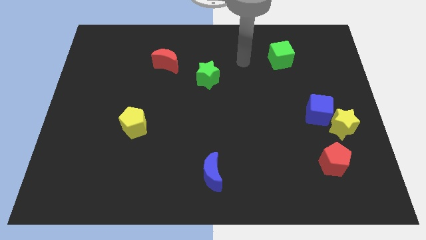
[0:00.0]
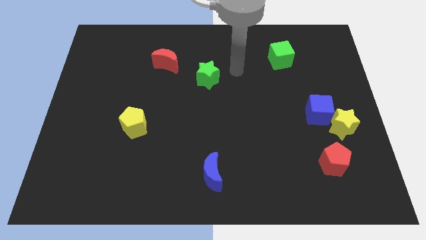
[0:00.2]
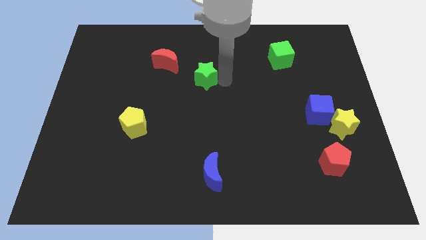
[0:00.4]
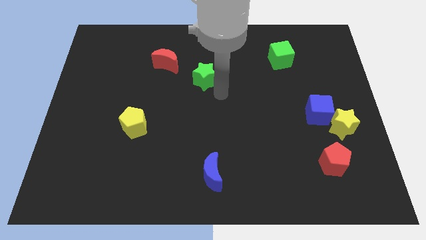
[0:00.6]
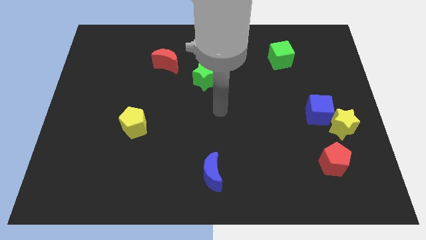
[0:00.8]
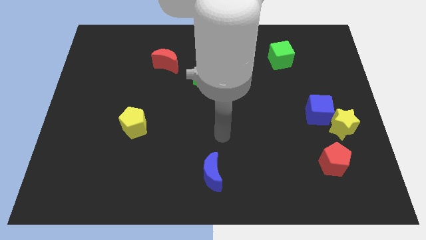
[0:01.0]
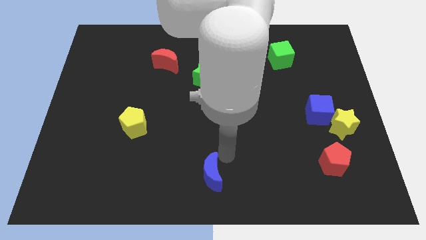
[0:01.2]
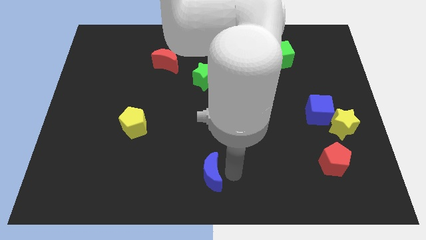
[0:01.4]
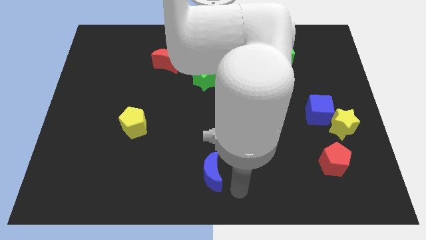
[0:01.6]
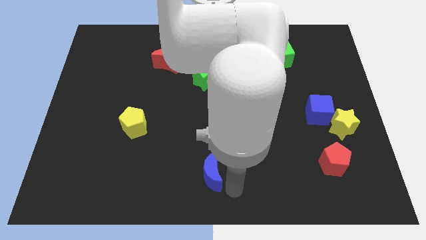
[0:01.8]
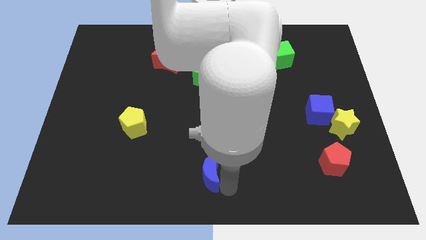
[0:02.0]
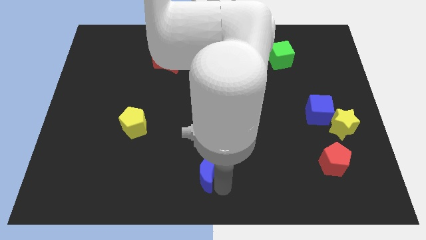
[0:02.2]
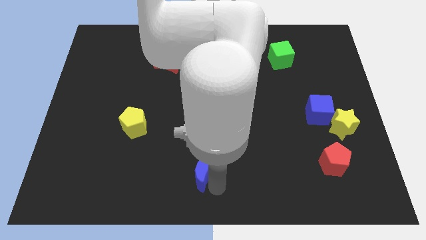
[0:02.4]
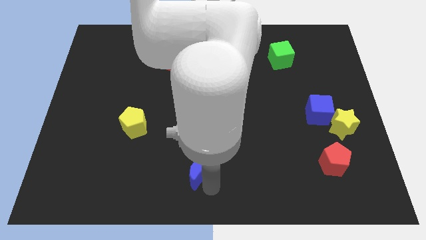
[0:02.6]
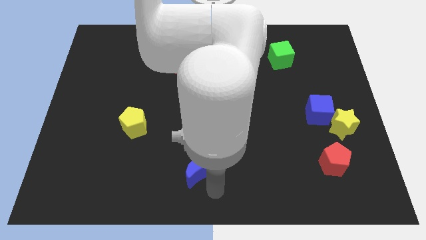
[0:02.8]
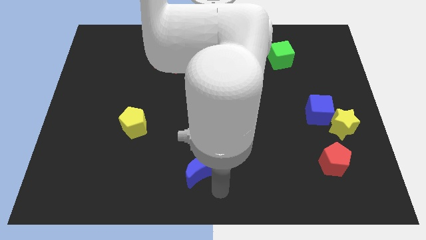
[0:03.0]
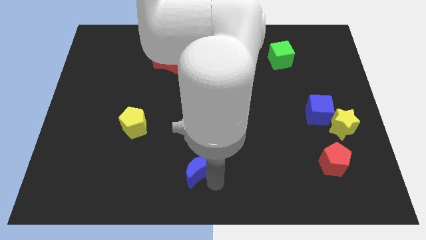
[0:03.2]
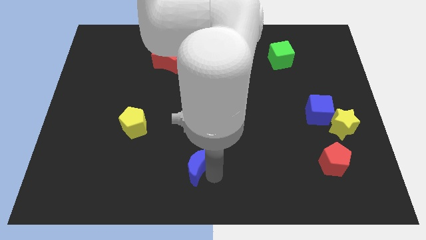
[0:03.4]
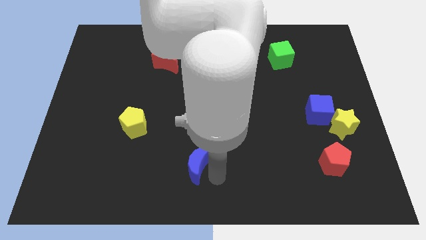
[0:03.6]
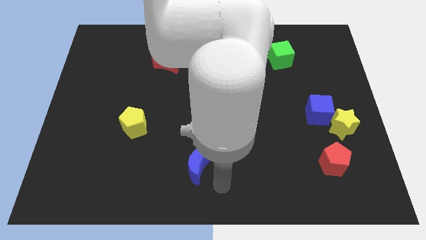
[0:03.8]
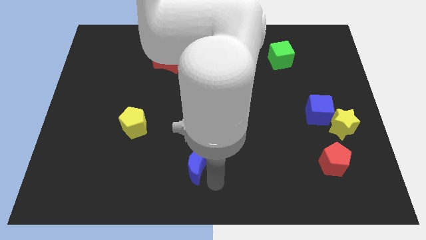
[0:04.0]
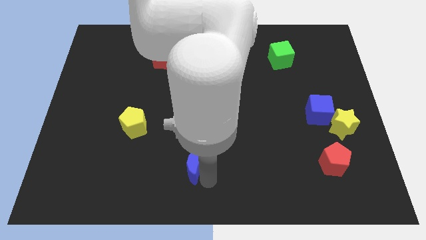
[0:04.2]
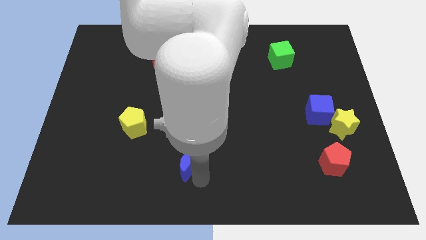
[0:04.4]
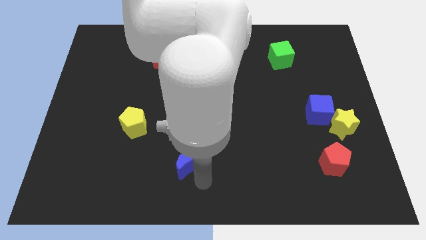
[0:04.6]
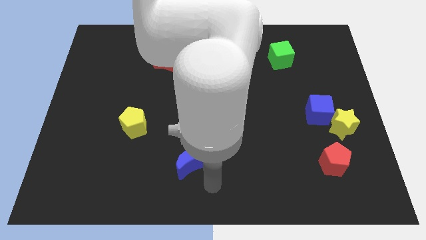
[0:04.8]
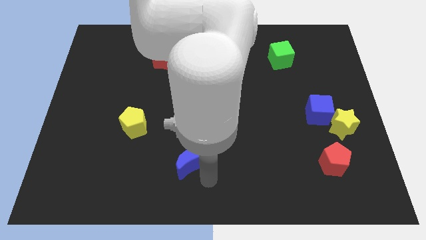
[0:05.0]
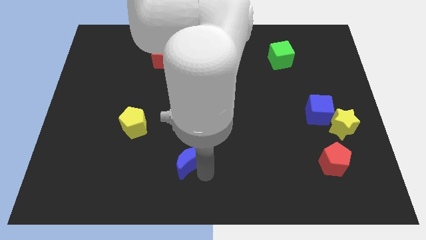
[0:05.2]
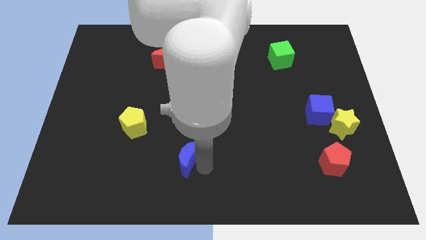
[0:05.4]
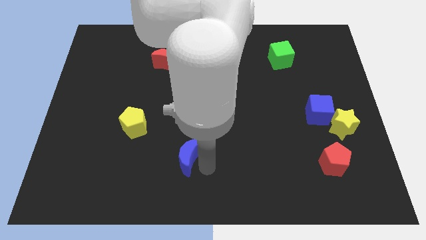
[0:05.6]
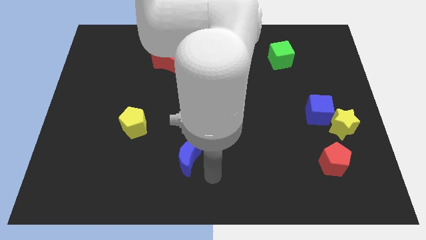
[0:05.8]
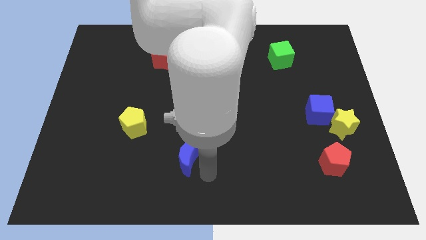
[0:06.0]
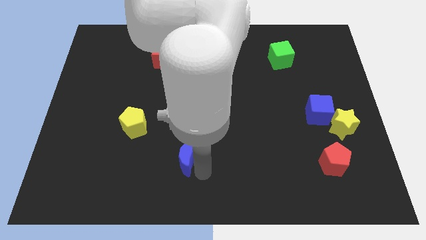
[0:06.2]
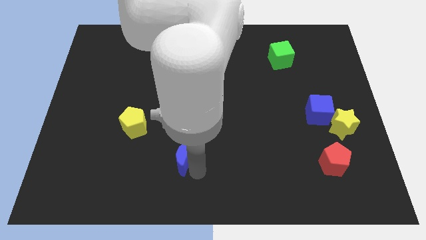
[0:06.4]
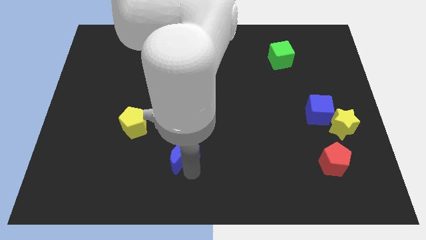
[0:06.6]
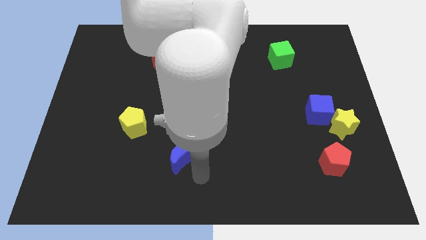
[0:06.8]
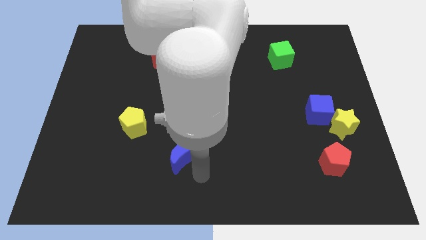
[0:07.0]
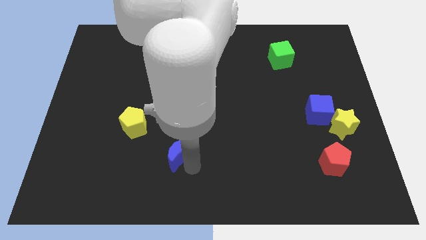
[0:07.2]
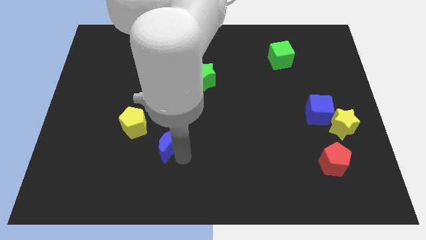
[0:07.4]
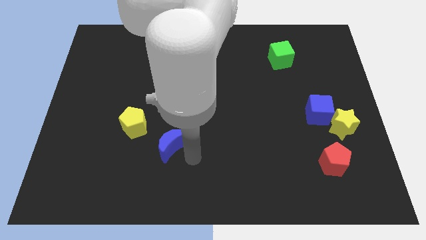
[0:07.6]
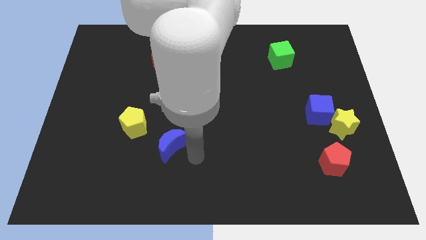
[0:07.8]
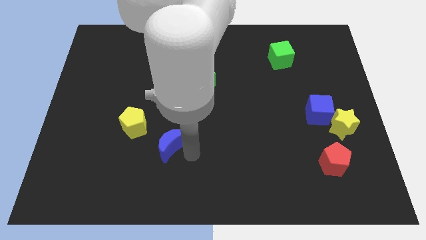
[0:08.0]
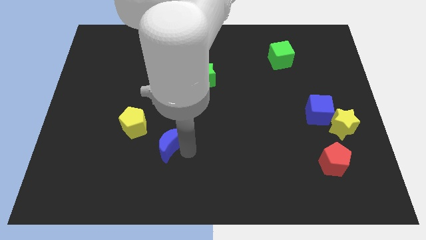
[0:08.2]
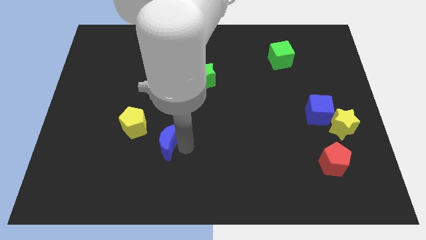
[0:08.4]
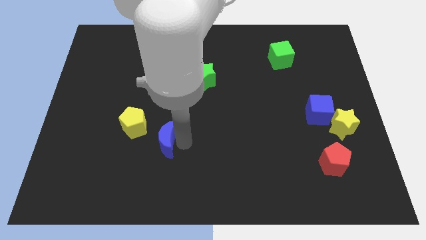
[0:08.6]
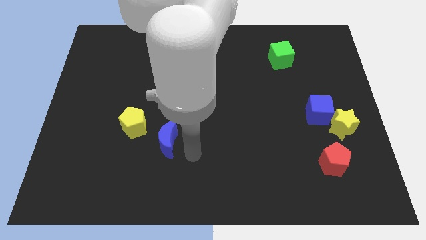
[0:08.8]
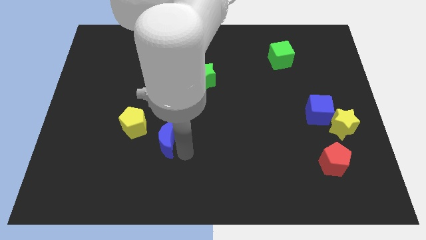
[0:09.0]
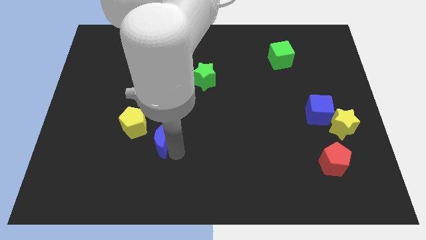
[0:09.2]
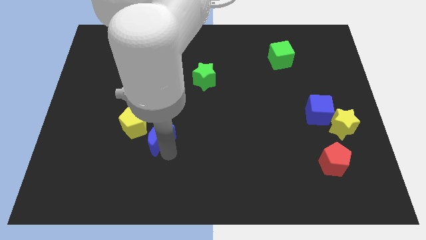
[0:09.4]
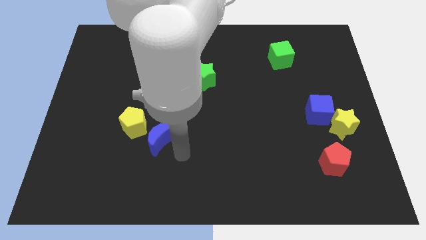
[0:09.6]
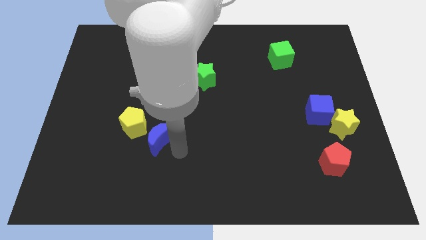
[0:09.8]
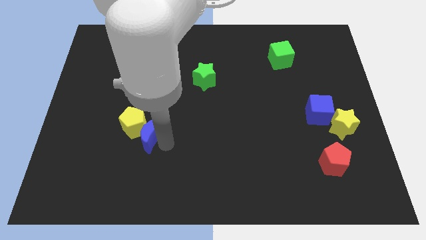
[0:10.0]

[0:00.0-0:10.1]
slide the blue moon towards the yellow pentagon

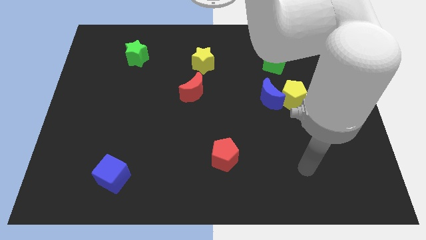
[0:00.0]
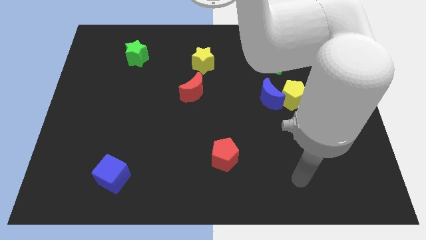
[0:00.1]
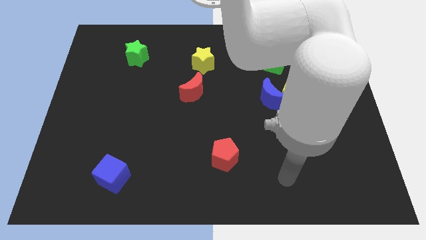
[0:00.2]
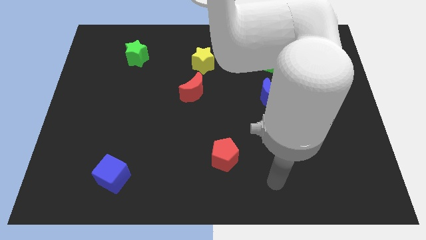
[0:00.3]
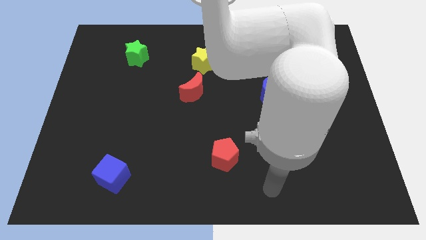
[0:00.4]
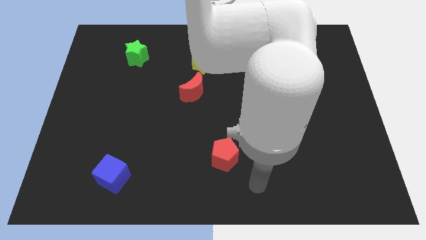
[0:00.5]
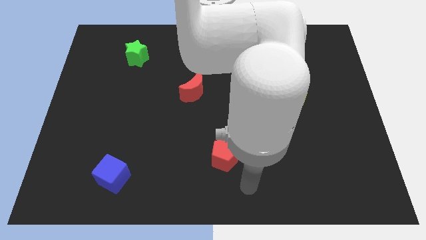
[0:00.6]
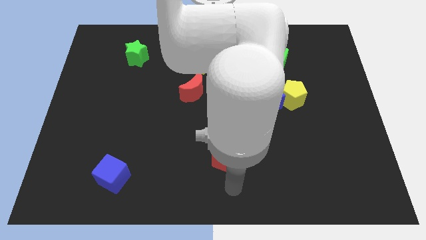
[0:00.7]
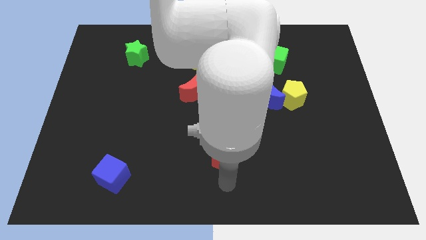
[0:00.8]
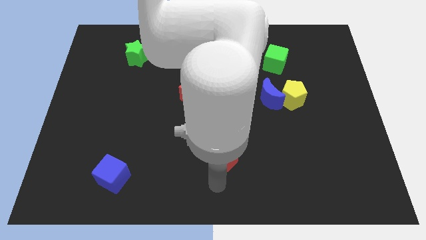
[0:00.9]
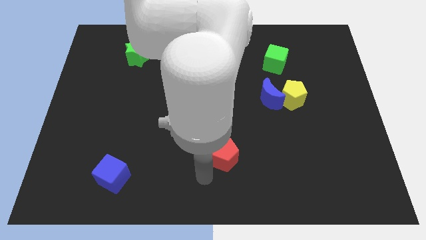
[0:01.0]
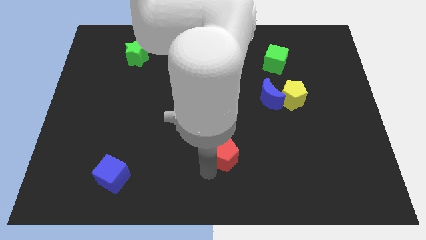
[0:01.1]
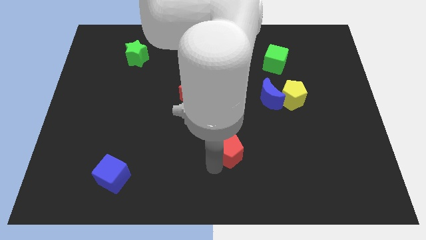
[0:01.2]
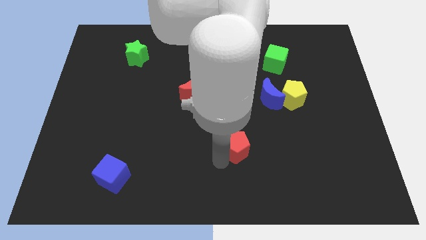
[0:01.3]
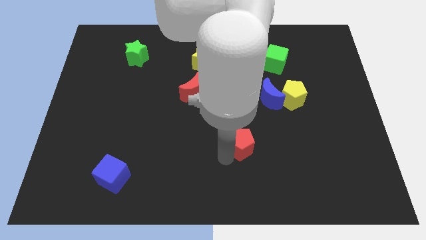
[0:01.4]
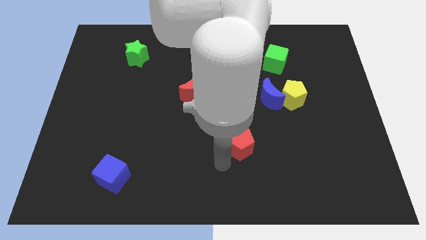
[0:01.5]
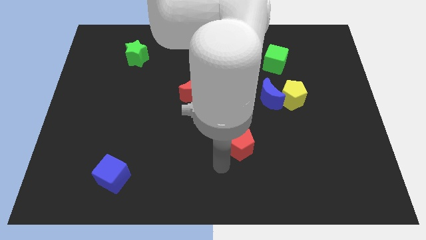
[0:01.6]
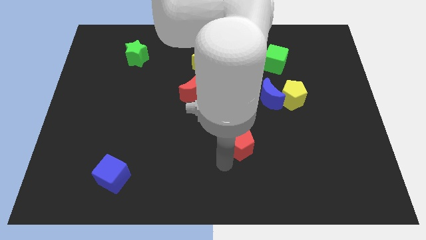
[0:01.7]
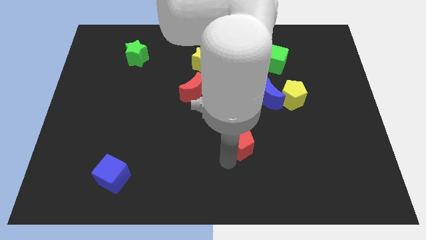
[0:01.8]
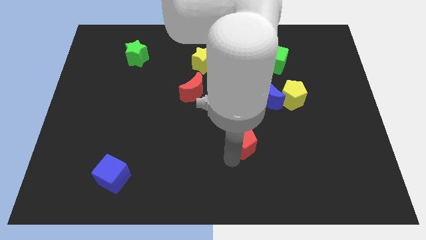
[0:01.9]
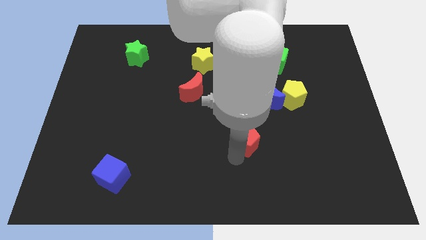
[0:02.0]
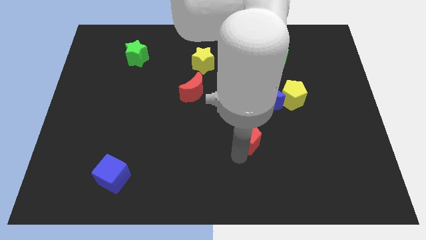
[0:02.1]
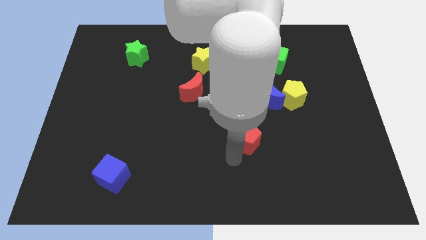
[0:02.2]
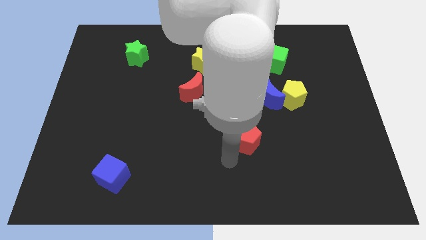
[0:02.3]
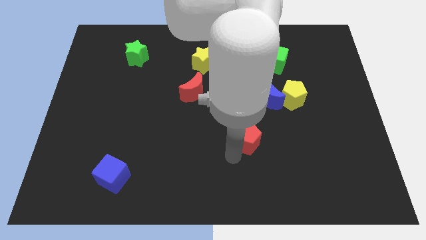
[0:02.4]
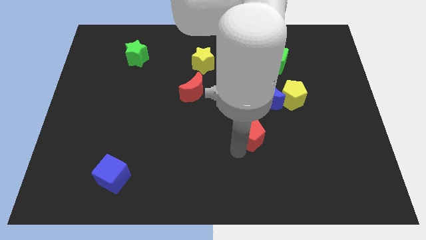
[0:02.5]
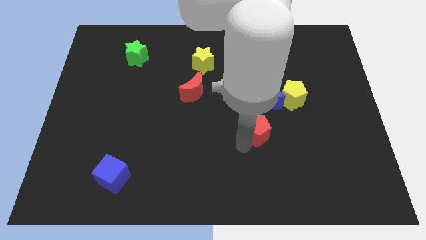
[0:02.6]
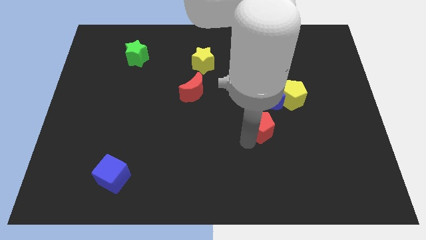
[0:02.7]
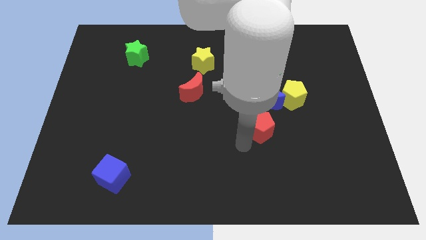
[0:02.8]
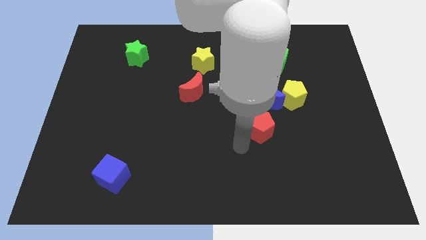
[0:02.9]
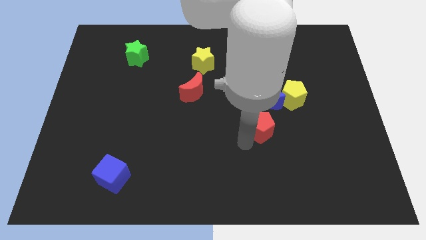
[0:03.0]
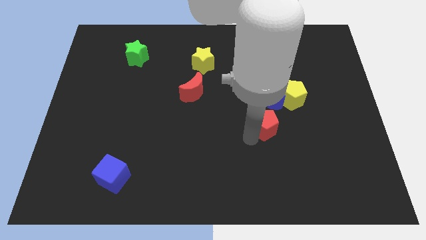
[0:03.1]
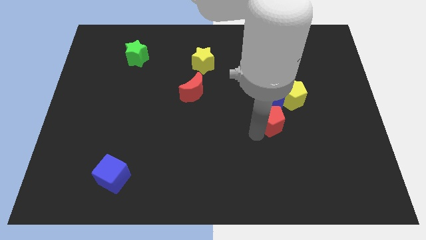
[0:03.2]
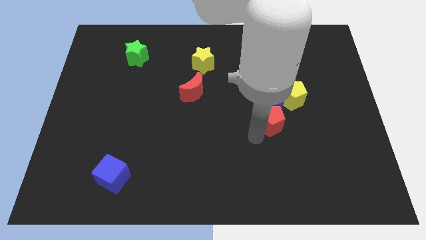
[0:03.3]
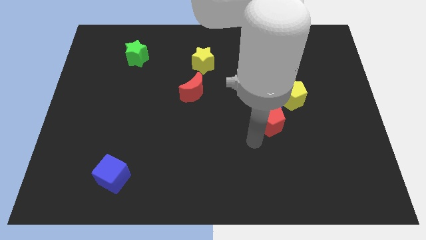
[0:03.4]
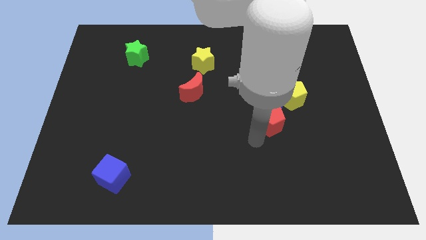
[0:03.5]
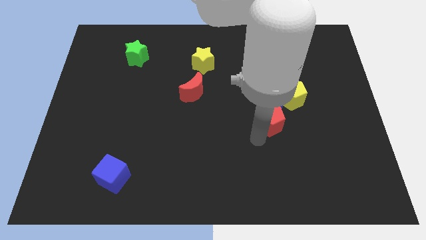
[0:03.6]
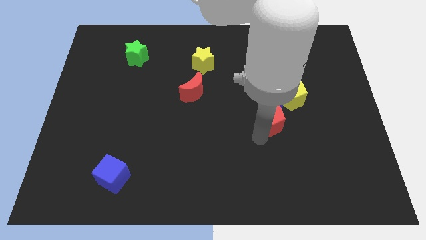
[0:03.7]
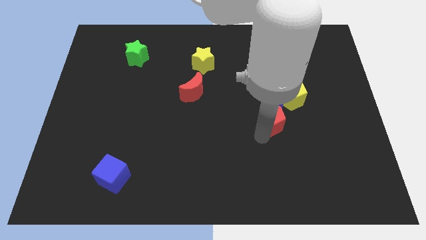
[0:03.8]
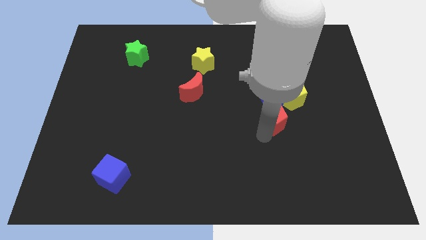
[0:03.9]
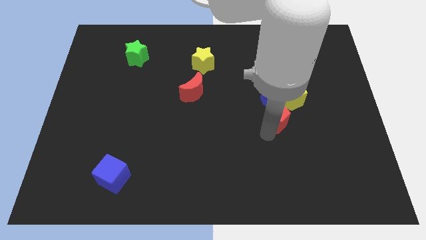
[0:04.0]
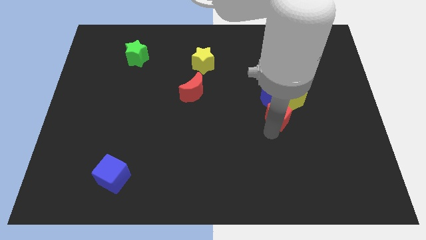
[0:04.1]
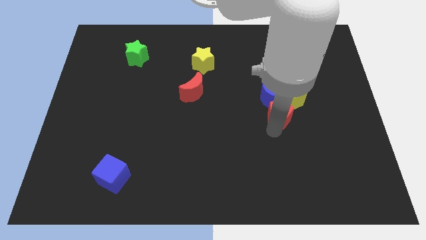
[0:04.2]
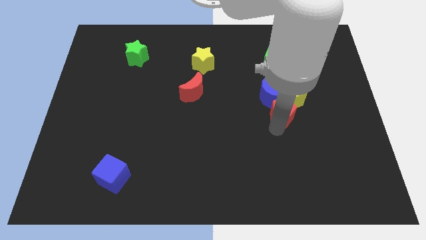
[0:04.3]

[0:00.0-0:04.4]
move the red pentagon next to the yellow pentagon
